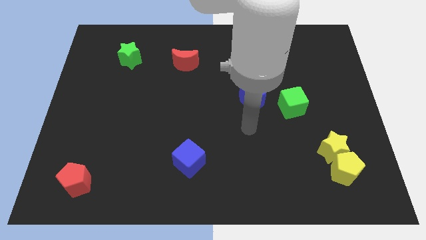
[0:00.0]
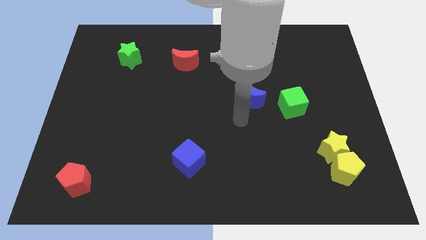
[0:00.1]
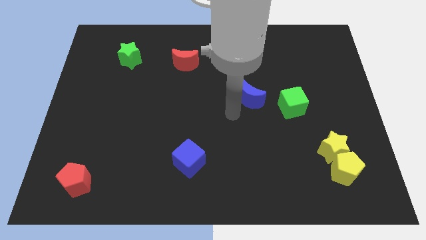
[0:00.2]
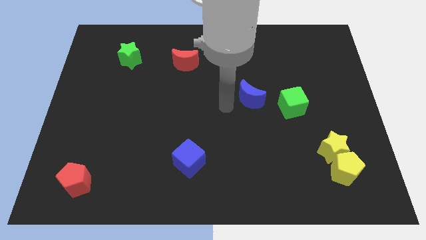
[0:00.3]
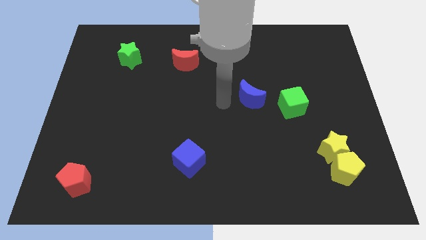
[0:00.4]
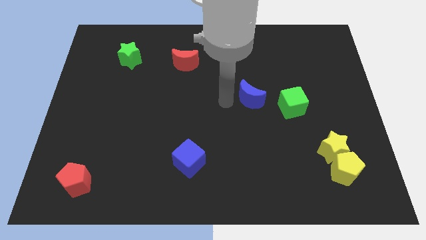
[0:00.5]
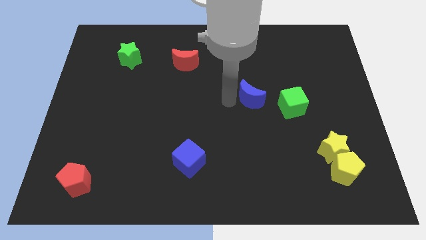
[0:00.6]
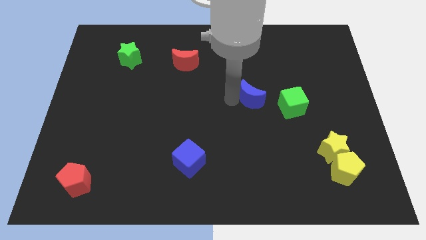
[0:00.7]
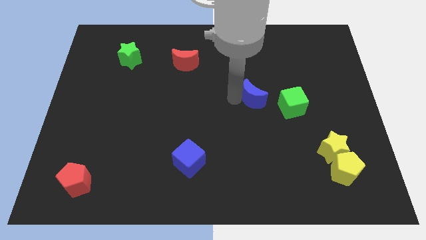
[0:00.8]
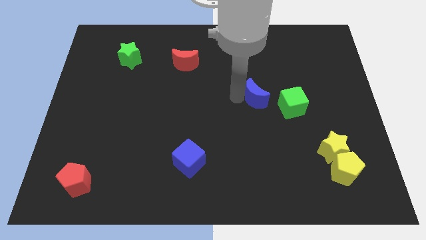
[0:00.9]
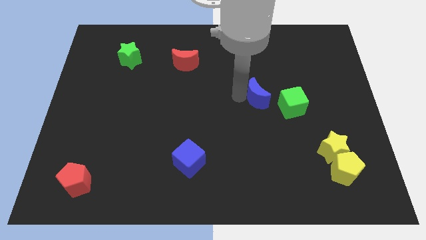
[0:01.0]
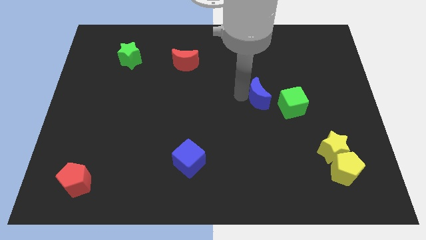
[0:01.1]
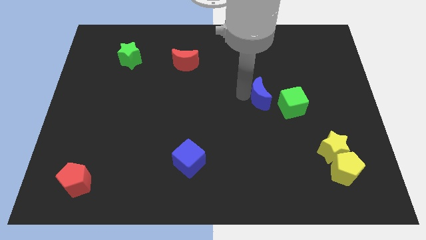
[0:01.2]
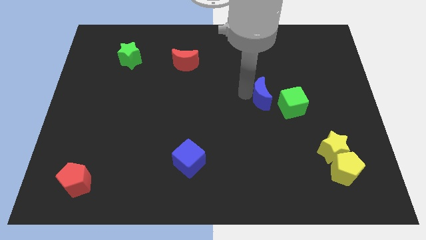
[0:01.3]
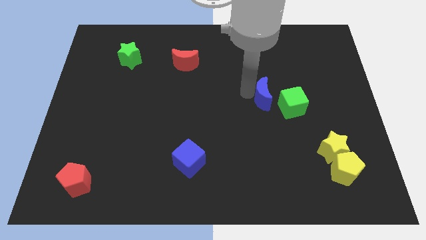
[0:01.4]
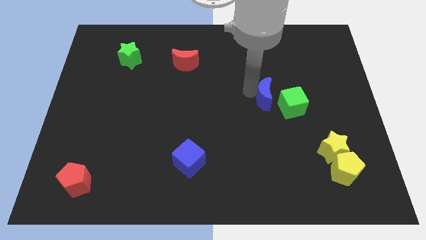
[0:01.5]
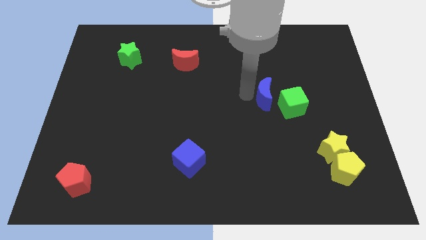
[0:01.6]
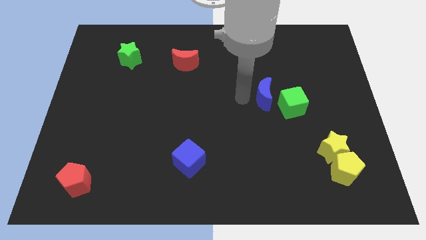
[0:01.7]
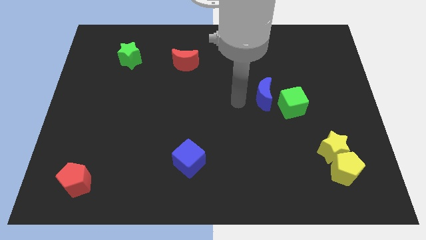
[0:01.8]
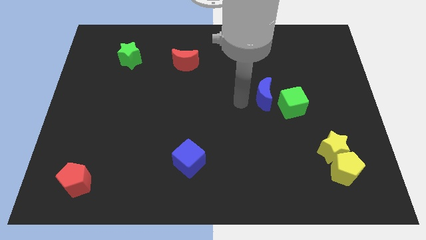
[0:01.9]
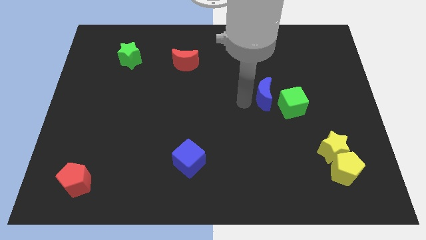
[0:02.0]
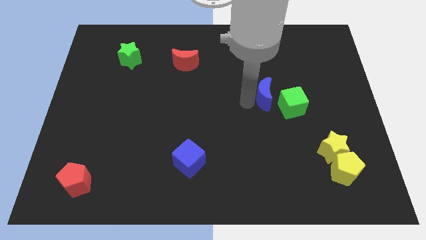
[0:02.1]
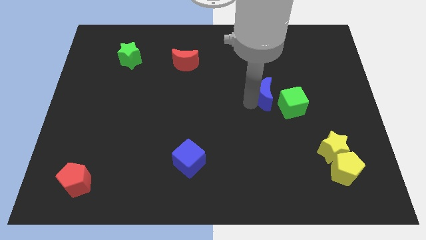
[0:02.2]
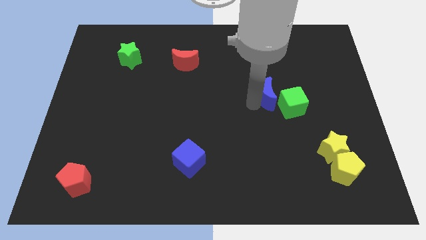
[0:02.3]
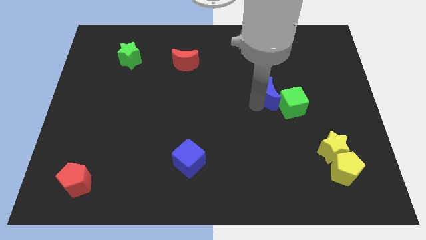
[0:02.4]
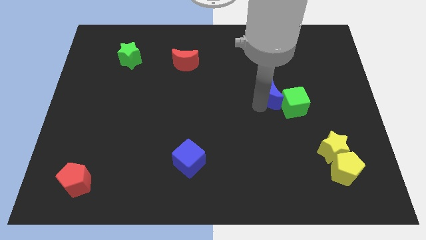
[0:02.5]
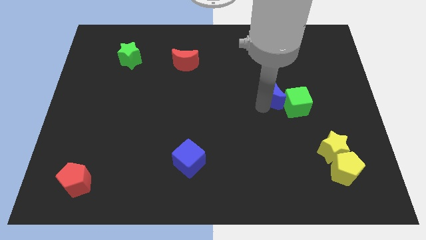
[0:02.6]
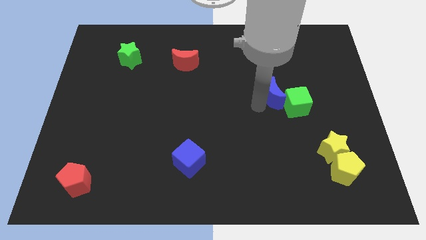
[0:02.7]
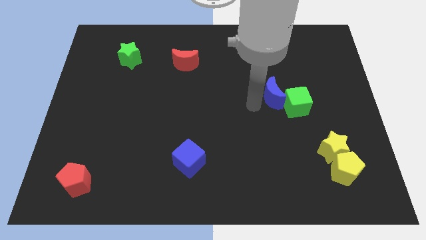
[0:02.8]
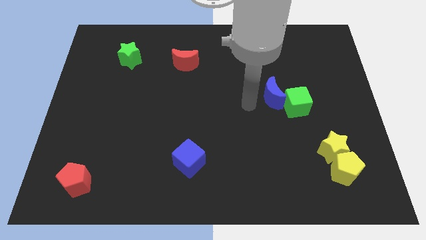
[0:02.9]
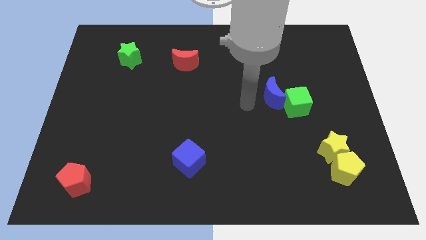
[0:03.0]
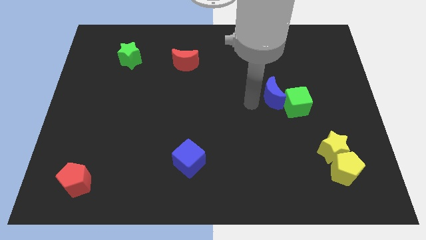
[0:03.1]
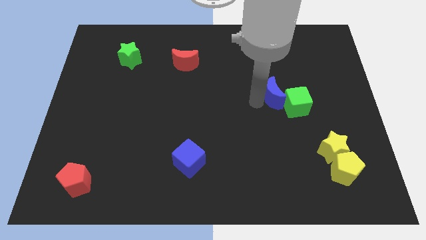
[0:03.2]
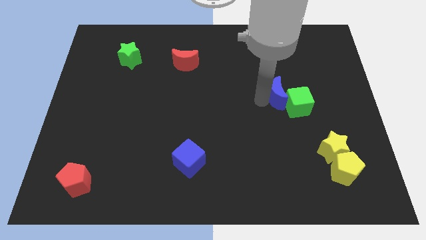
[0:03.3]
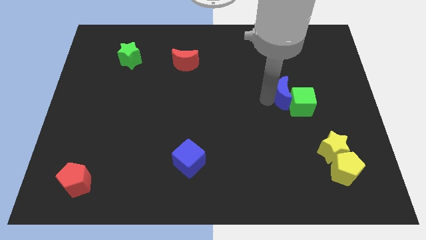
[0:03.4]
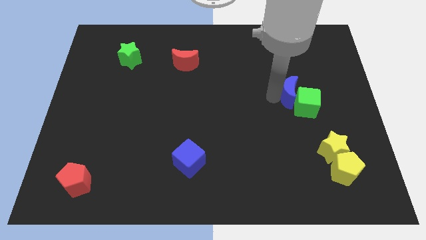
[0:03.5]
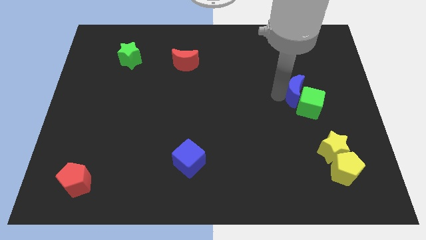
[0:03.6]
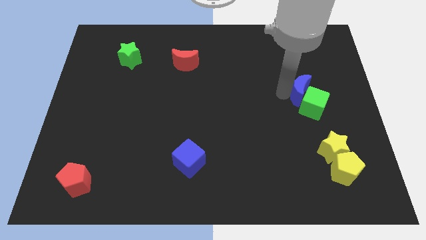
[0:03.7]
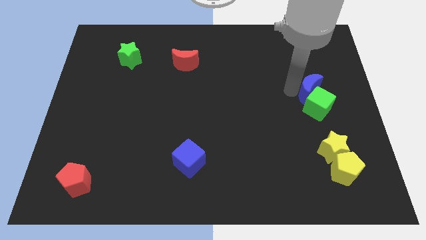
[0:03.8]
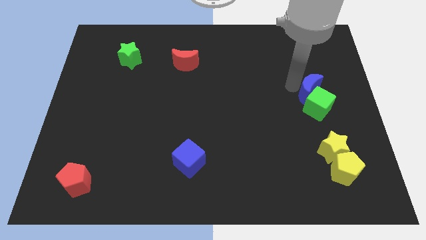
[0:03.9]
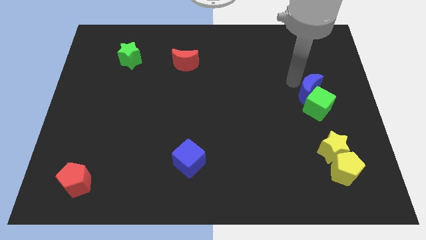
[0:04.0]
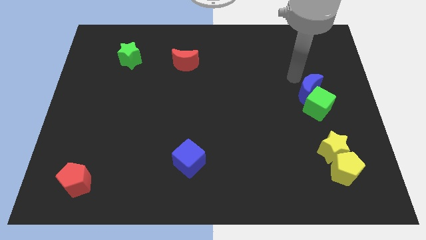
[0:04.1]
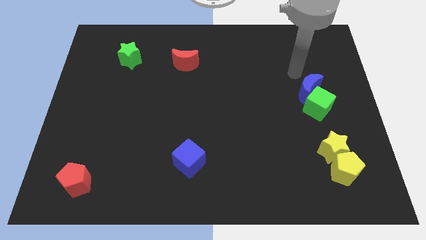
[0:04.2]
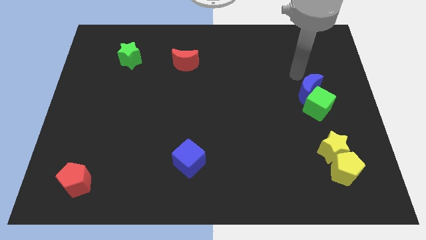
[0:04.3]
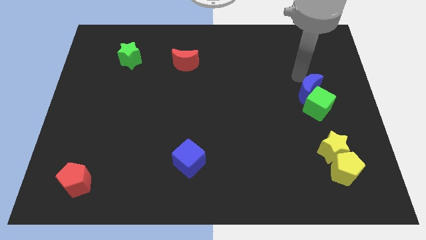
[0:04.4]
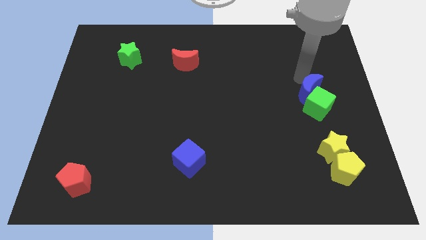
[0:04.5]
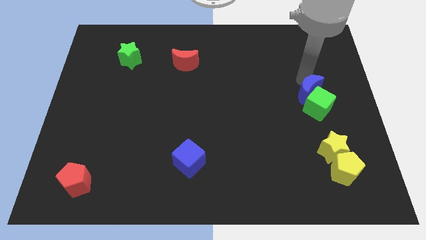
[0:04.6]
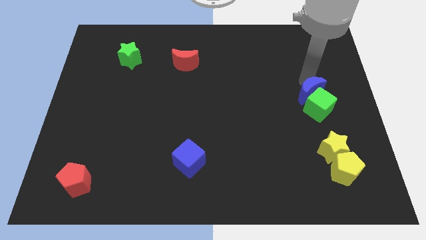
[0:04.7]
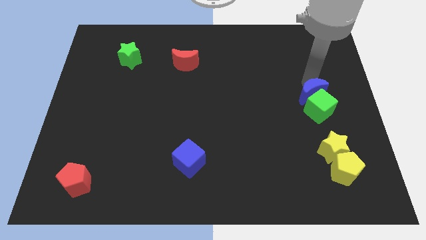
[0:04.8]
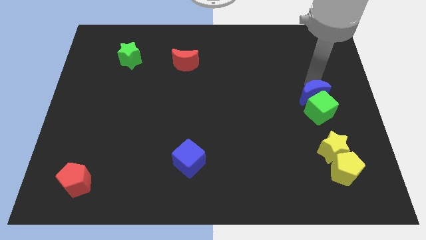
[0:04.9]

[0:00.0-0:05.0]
move the blue moon to the top of the yellow star

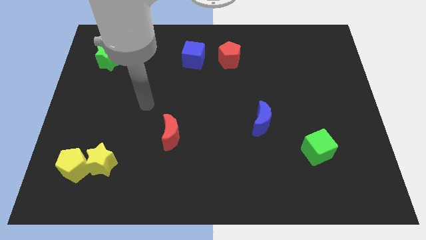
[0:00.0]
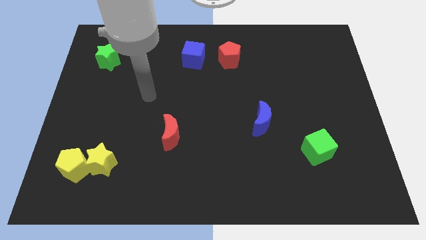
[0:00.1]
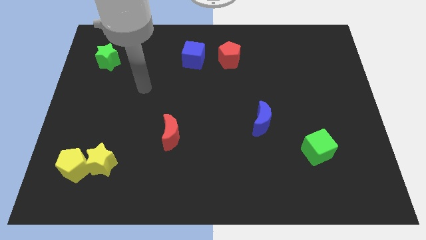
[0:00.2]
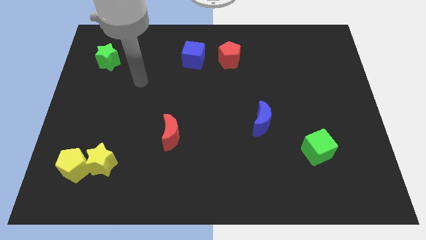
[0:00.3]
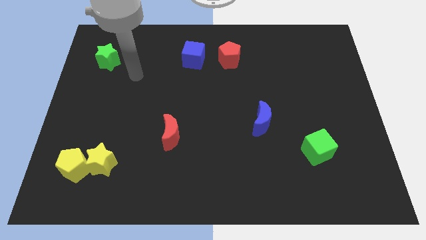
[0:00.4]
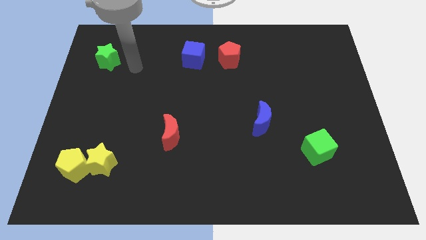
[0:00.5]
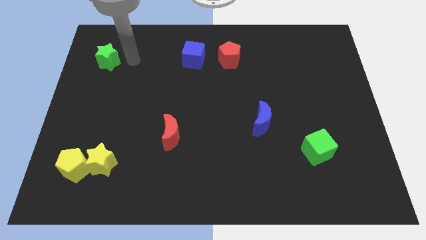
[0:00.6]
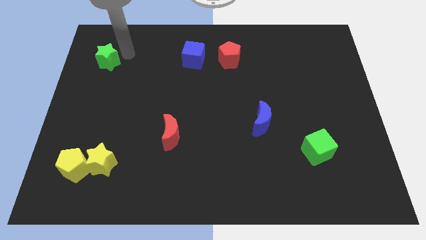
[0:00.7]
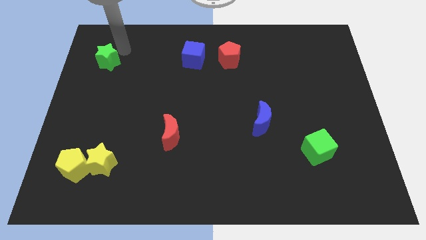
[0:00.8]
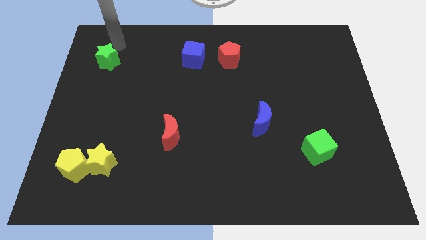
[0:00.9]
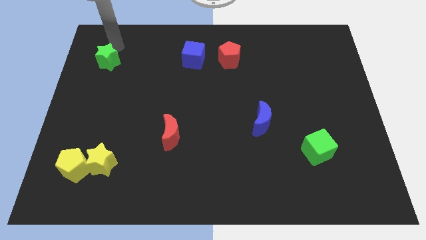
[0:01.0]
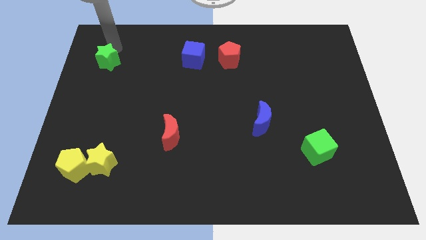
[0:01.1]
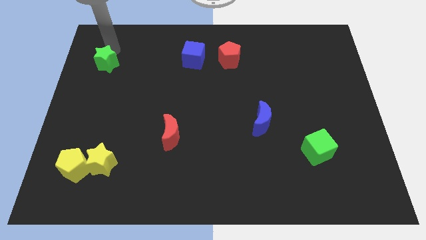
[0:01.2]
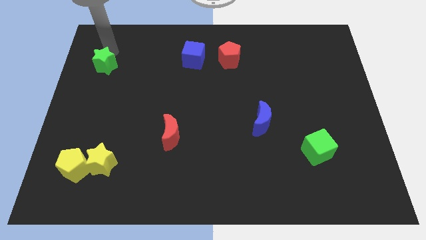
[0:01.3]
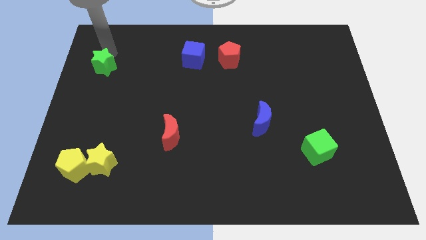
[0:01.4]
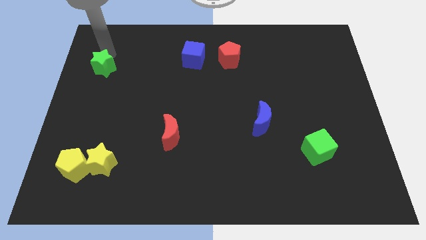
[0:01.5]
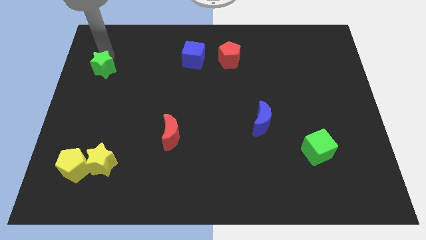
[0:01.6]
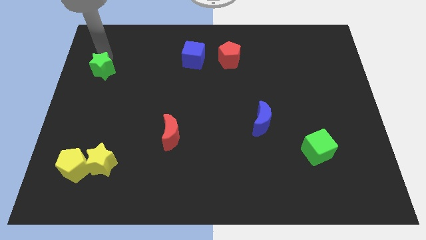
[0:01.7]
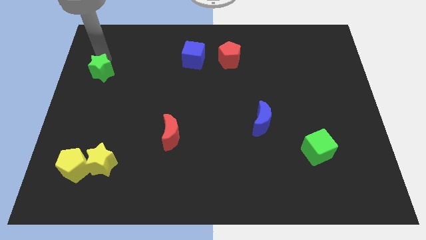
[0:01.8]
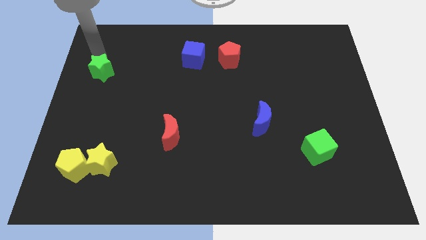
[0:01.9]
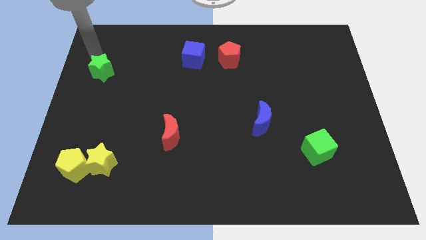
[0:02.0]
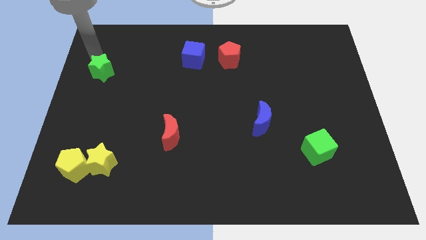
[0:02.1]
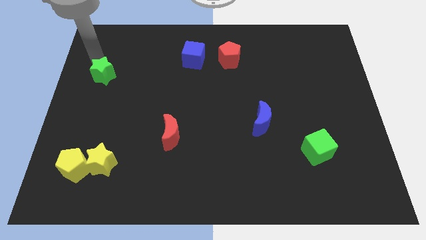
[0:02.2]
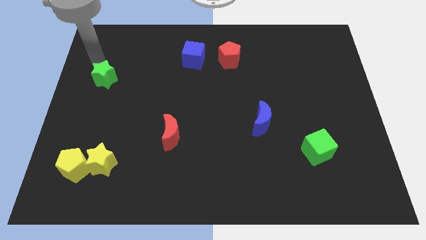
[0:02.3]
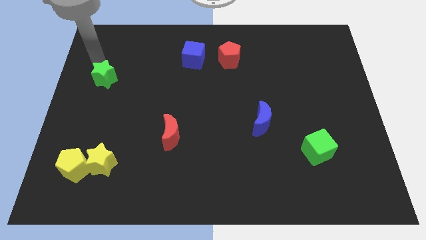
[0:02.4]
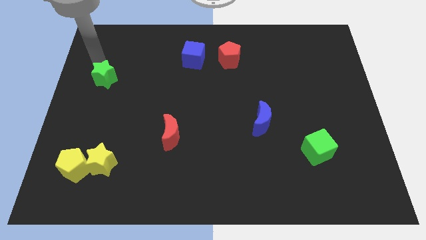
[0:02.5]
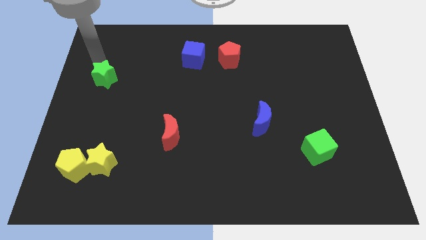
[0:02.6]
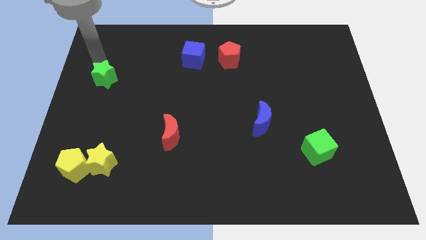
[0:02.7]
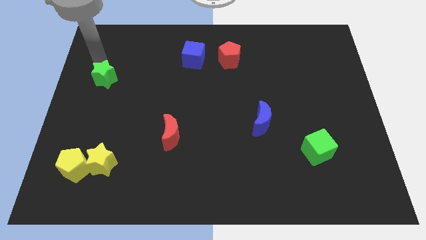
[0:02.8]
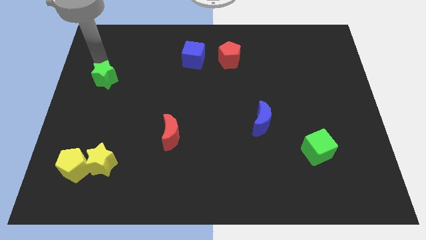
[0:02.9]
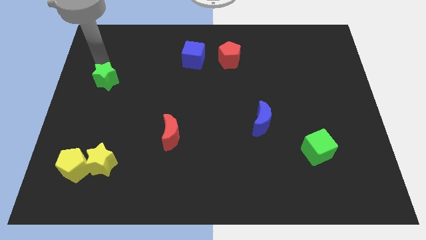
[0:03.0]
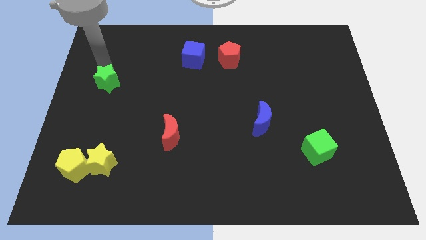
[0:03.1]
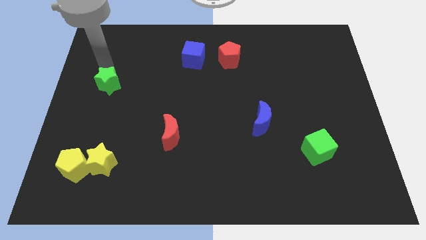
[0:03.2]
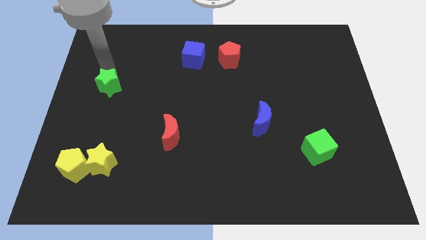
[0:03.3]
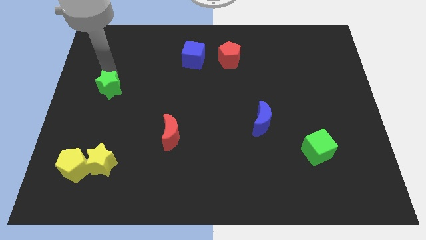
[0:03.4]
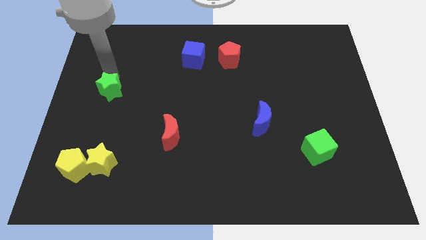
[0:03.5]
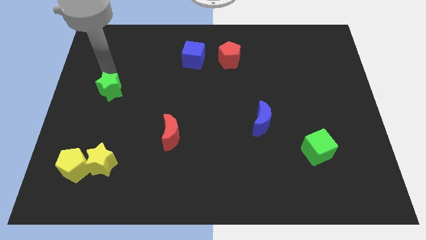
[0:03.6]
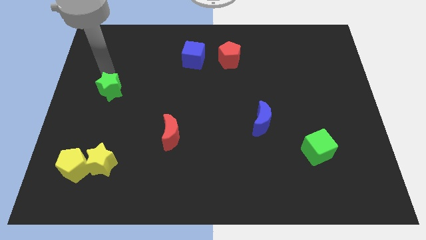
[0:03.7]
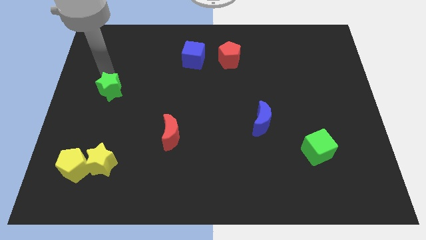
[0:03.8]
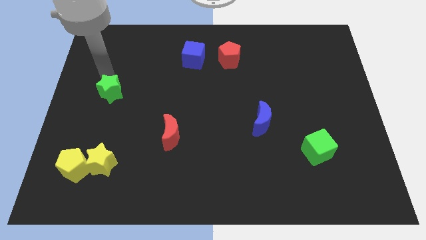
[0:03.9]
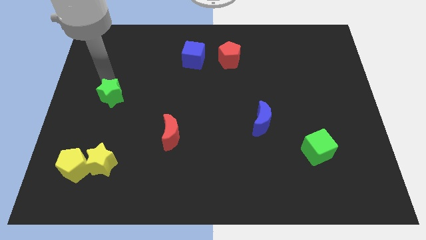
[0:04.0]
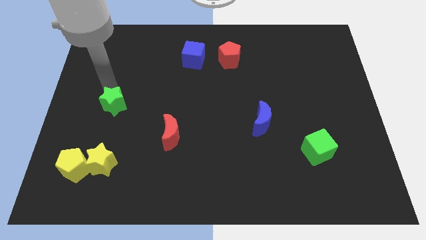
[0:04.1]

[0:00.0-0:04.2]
put the green star to the top side of the yellow star
